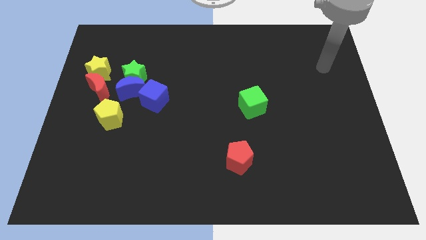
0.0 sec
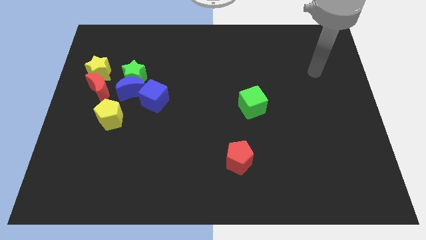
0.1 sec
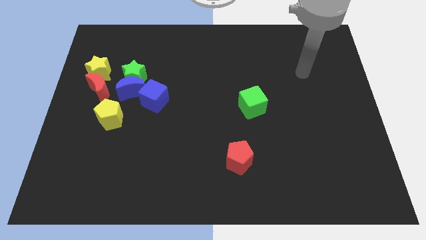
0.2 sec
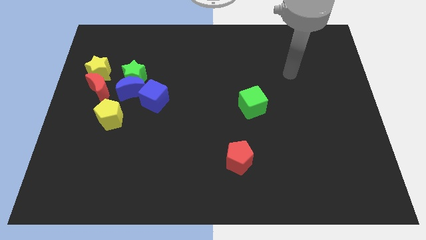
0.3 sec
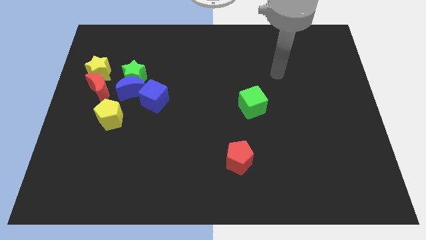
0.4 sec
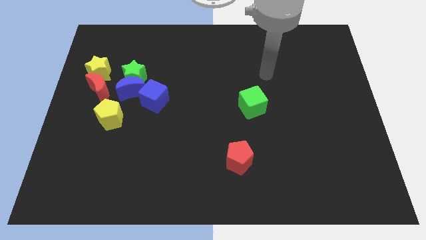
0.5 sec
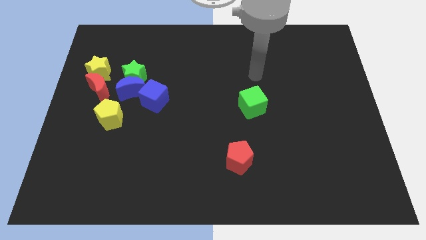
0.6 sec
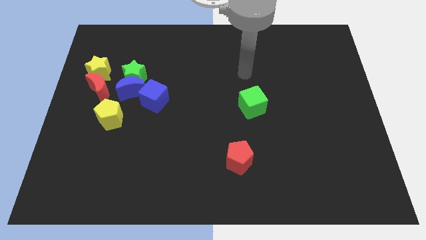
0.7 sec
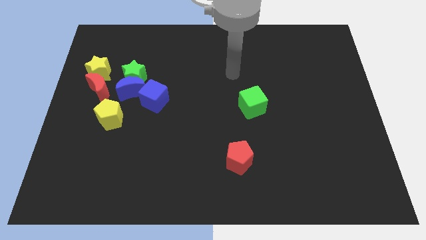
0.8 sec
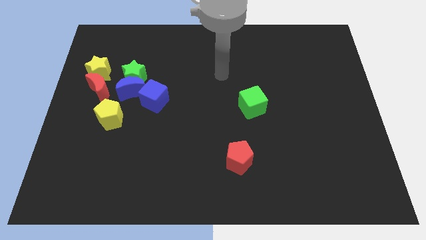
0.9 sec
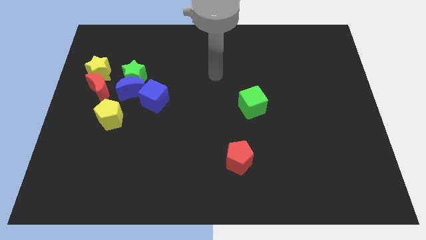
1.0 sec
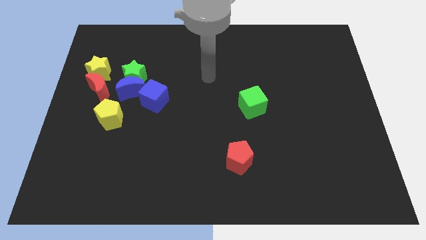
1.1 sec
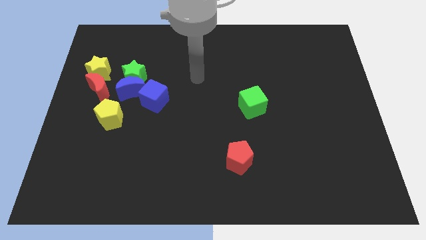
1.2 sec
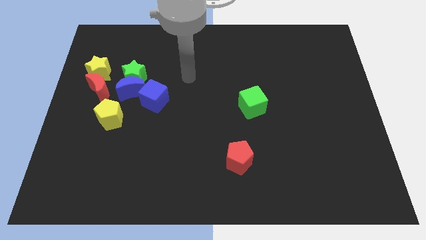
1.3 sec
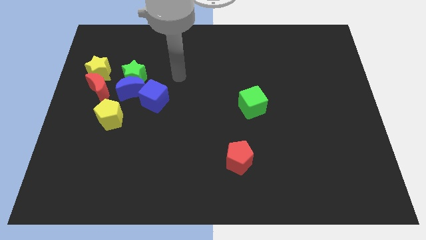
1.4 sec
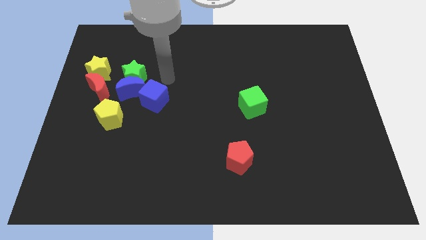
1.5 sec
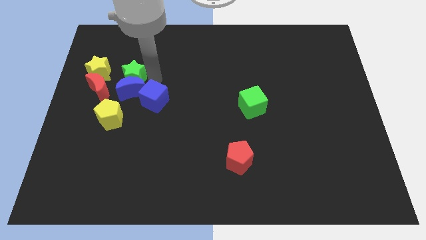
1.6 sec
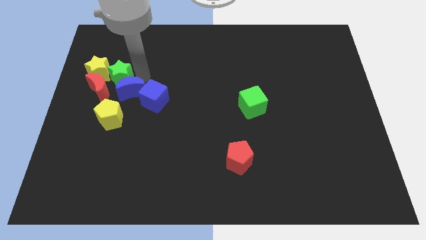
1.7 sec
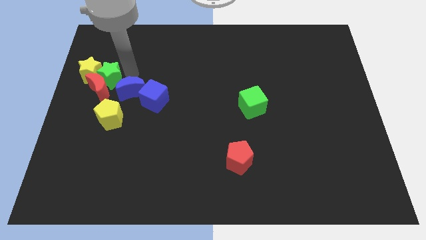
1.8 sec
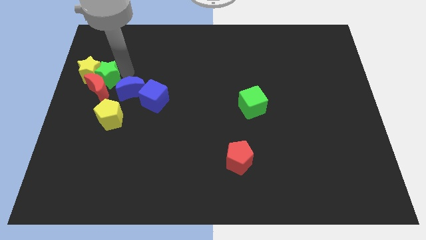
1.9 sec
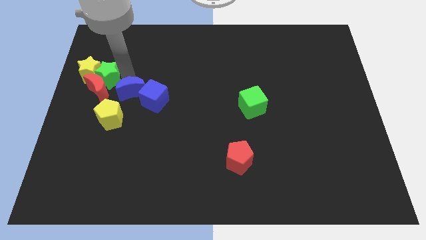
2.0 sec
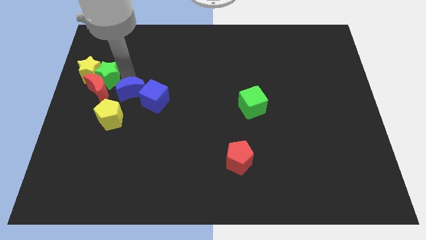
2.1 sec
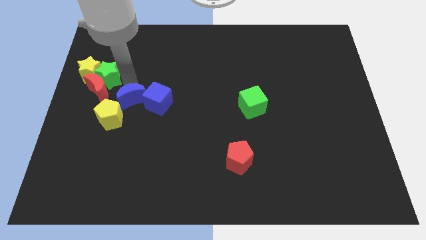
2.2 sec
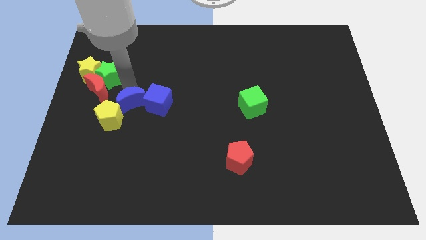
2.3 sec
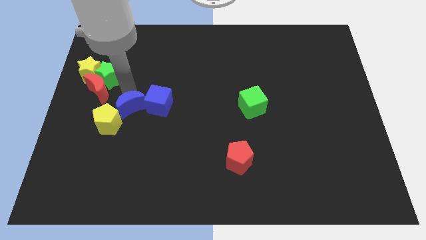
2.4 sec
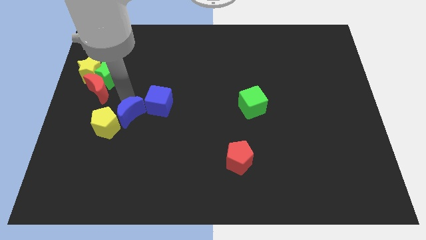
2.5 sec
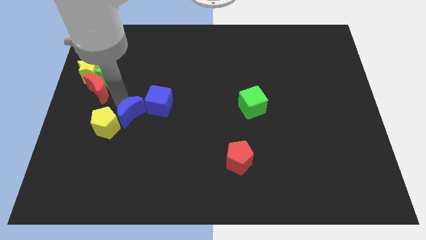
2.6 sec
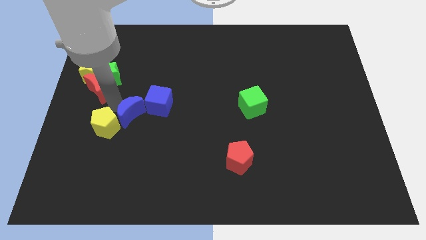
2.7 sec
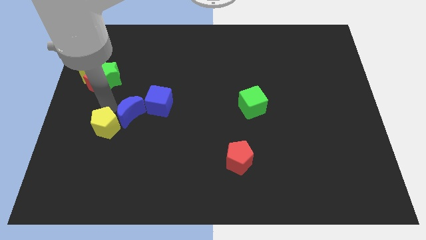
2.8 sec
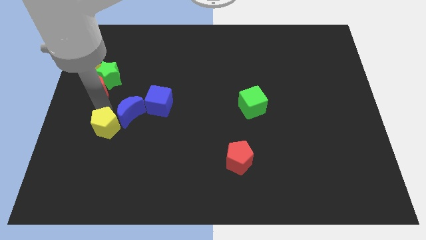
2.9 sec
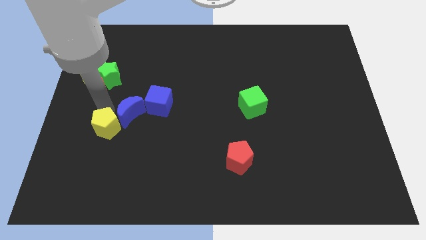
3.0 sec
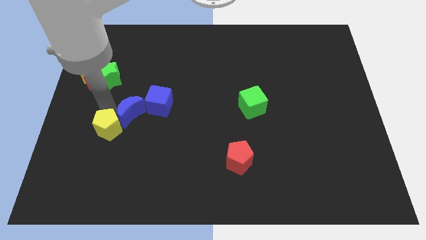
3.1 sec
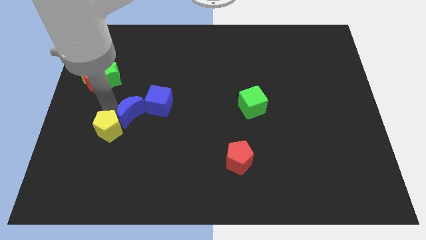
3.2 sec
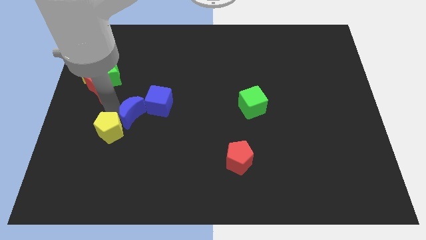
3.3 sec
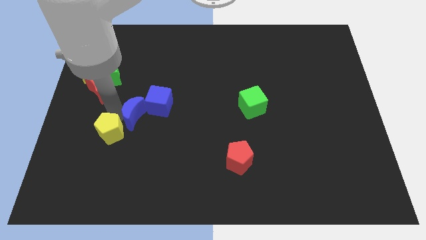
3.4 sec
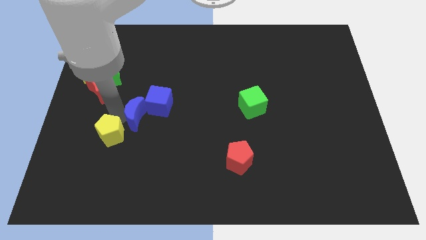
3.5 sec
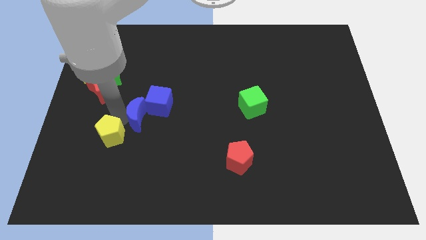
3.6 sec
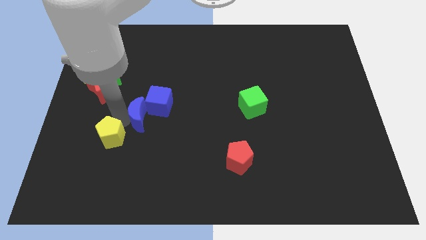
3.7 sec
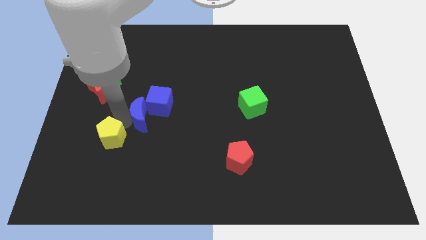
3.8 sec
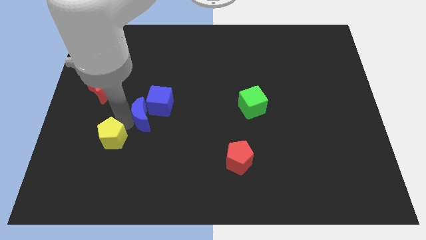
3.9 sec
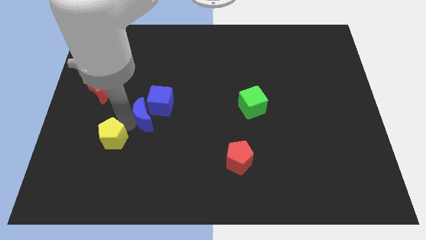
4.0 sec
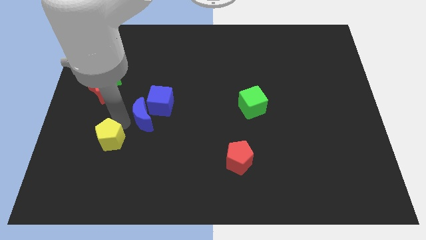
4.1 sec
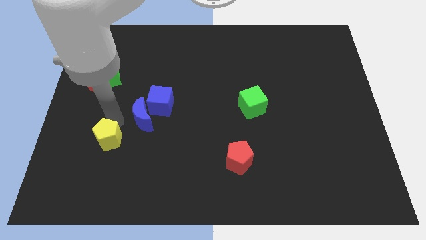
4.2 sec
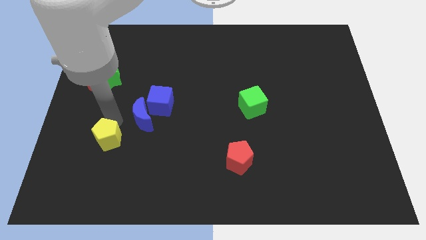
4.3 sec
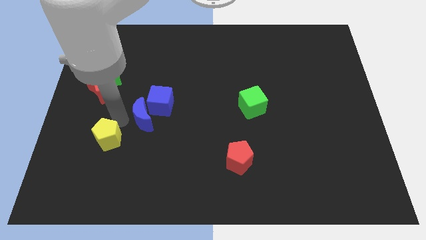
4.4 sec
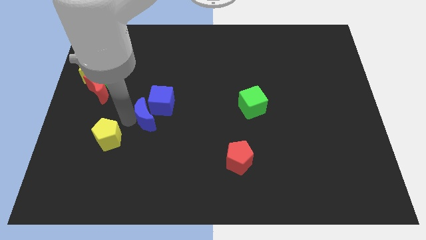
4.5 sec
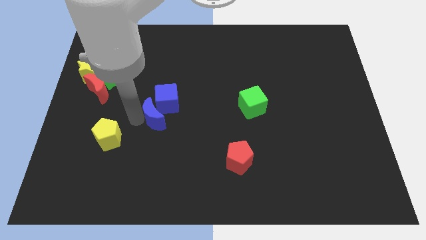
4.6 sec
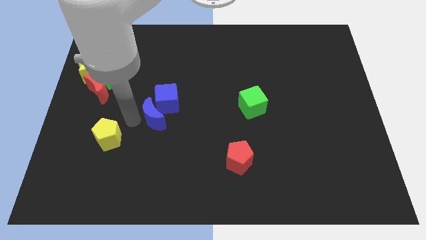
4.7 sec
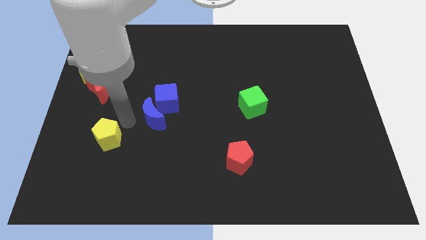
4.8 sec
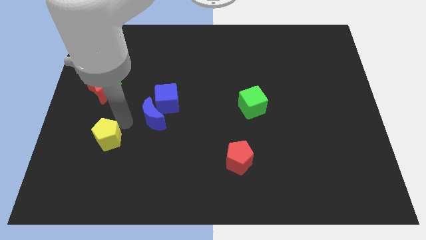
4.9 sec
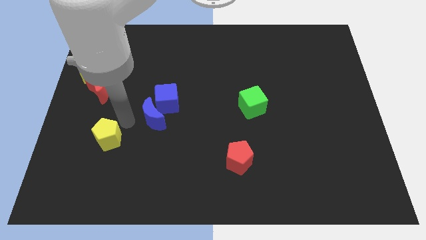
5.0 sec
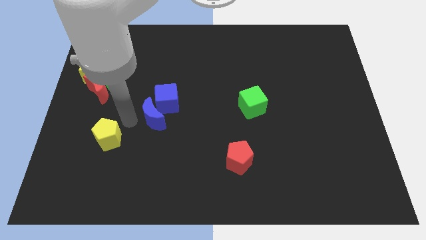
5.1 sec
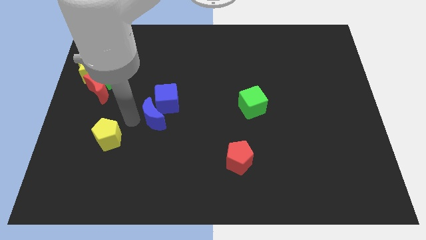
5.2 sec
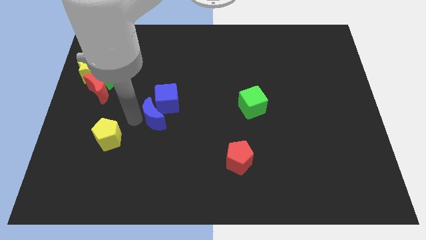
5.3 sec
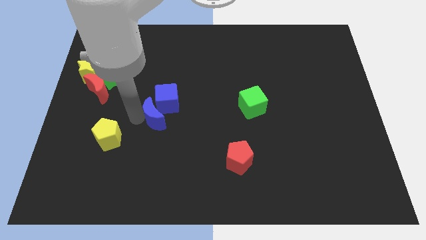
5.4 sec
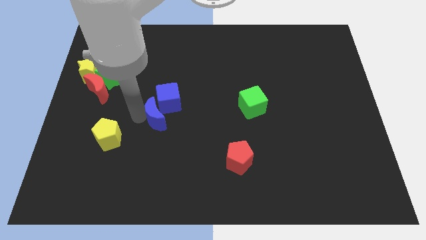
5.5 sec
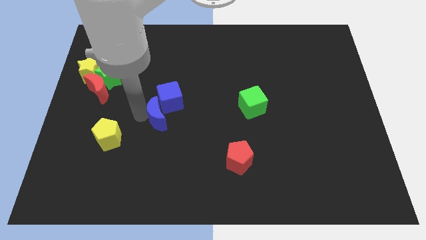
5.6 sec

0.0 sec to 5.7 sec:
separate the blue moon from the group

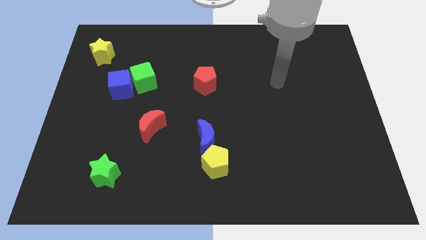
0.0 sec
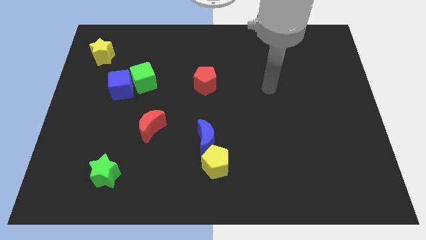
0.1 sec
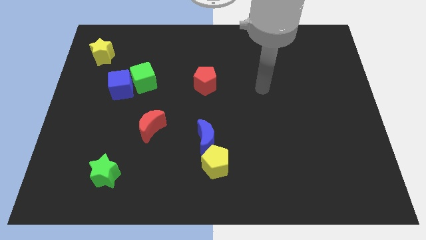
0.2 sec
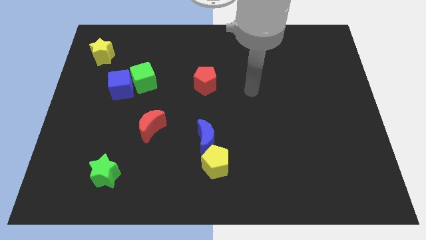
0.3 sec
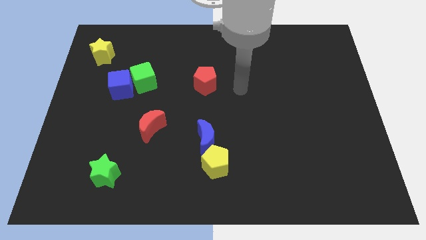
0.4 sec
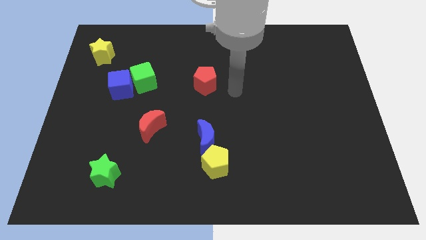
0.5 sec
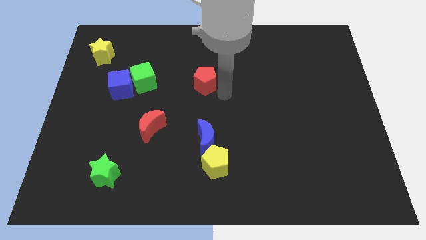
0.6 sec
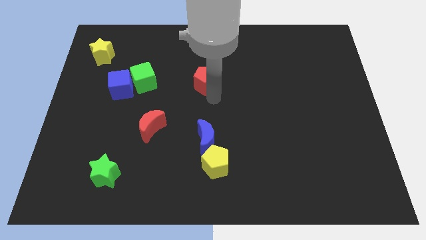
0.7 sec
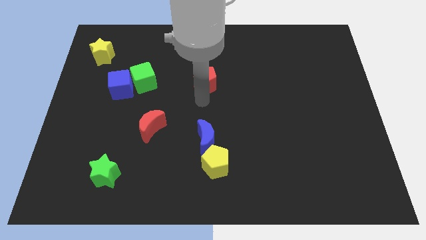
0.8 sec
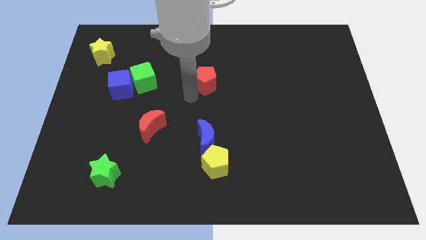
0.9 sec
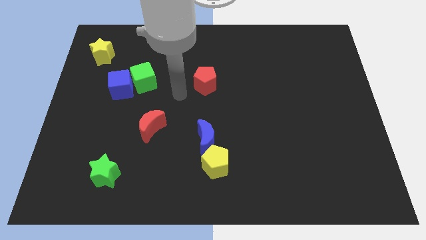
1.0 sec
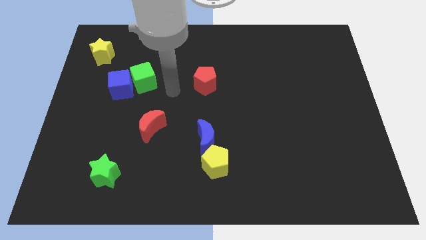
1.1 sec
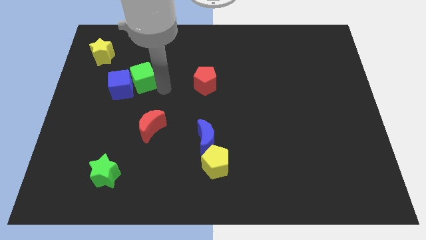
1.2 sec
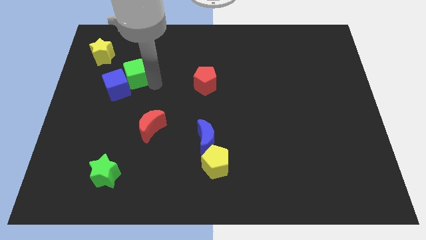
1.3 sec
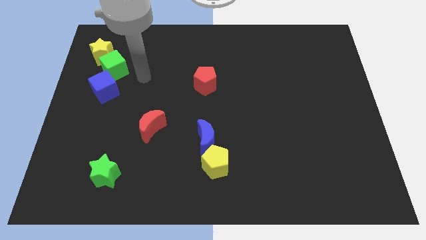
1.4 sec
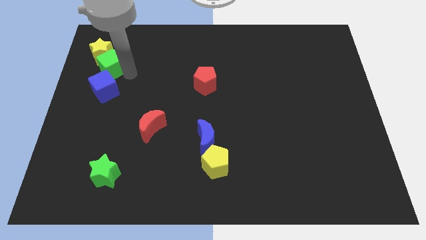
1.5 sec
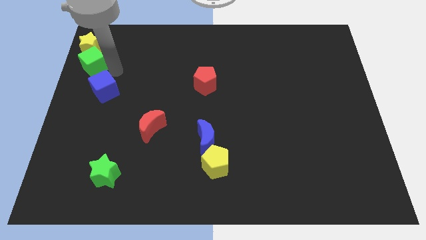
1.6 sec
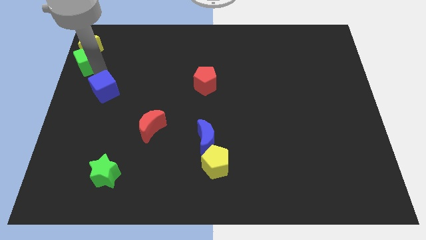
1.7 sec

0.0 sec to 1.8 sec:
separate the blue cube from the green cube

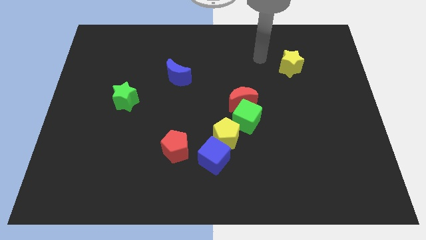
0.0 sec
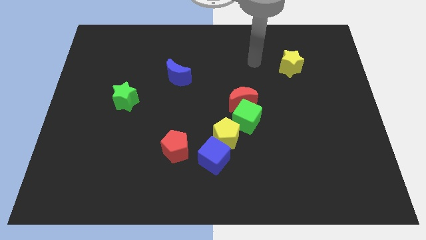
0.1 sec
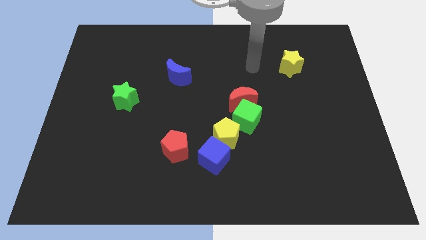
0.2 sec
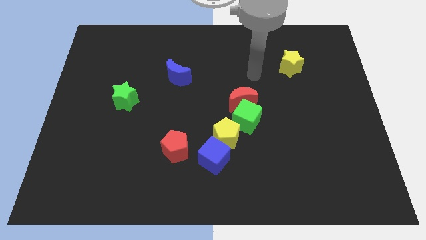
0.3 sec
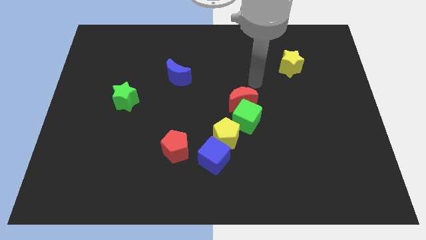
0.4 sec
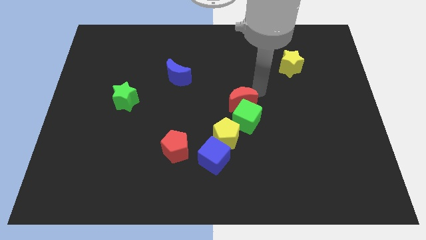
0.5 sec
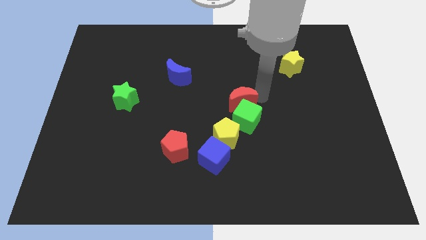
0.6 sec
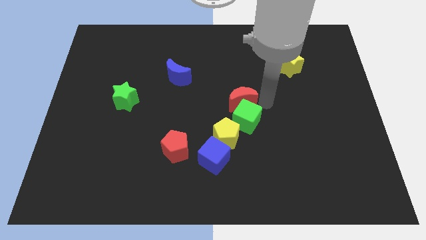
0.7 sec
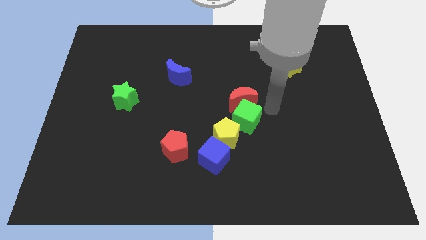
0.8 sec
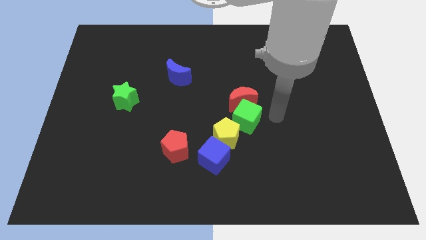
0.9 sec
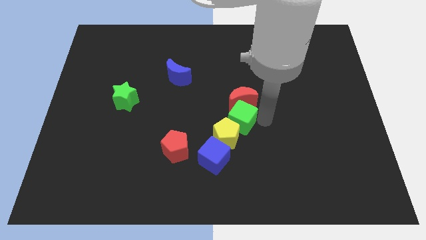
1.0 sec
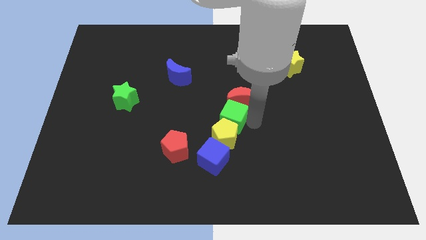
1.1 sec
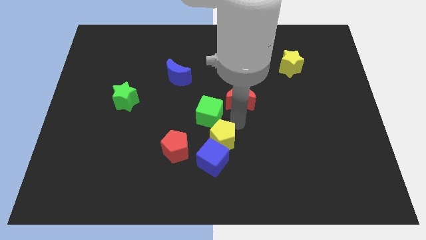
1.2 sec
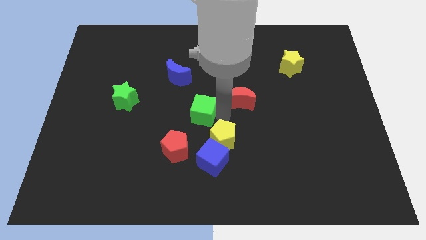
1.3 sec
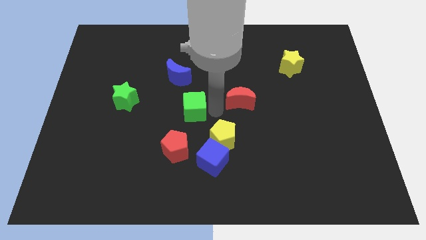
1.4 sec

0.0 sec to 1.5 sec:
pull the red moon apart from the green cube

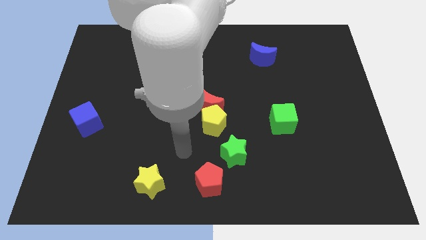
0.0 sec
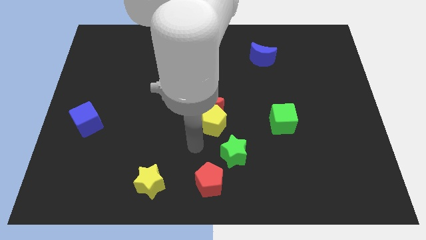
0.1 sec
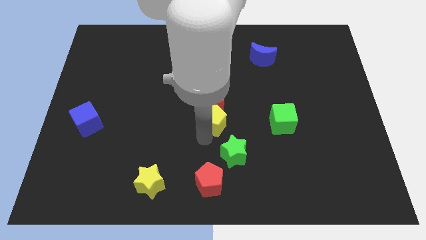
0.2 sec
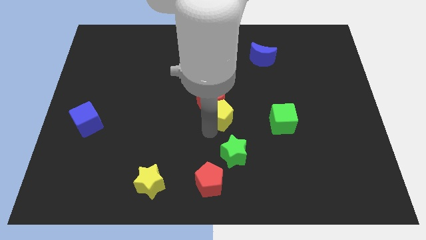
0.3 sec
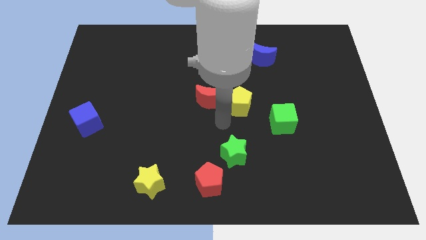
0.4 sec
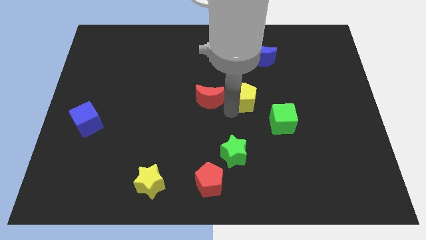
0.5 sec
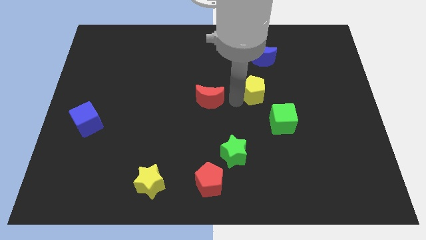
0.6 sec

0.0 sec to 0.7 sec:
pull the red moon apart from the yellow pentagon
